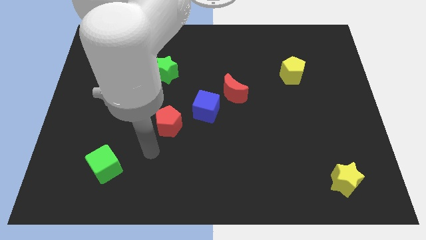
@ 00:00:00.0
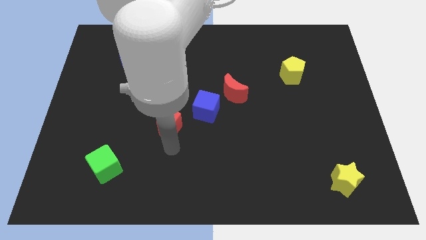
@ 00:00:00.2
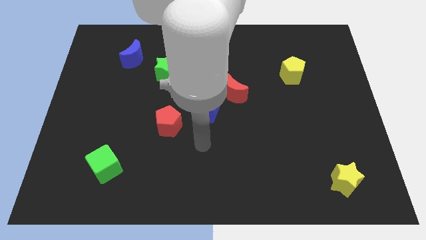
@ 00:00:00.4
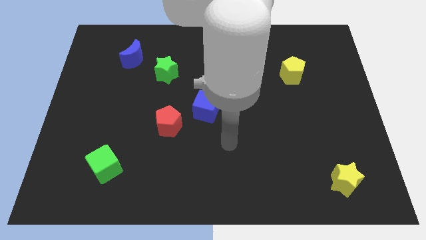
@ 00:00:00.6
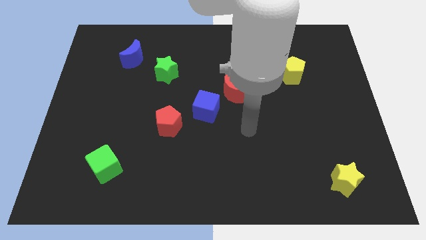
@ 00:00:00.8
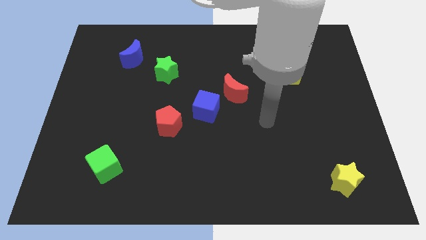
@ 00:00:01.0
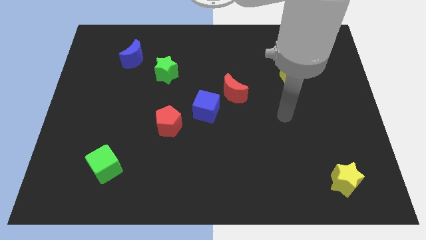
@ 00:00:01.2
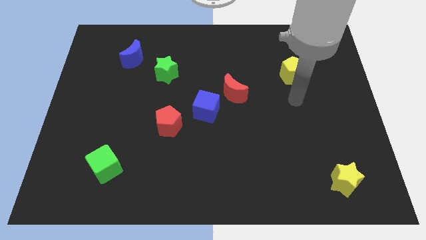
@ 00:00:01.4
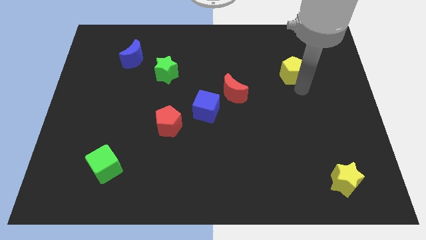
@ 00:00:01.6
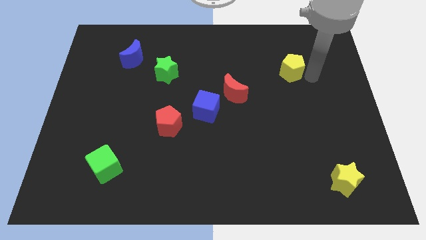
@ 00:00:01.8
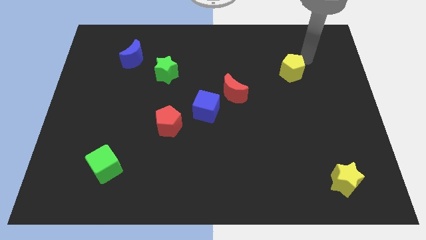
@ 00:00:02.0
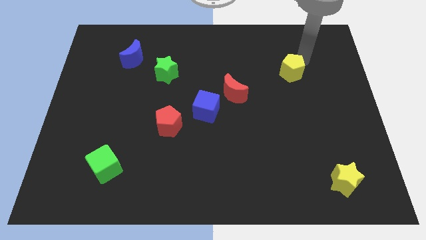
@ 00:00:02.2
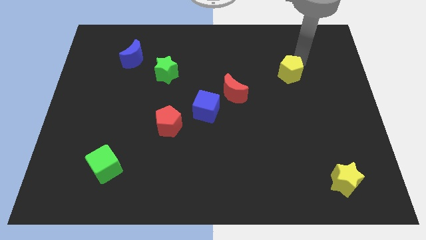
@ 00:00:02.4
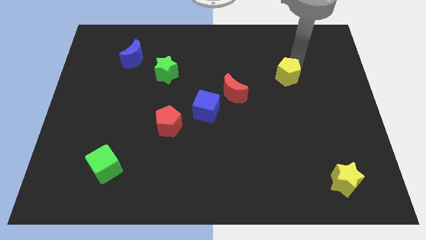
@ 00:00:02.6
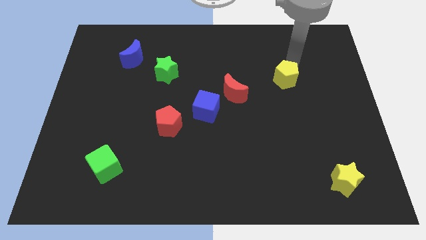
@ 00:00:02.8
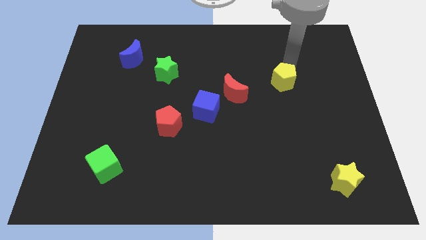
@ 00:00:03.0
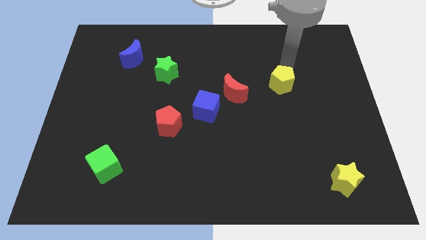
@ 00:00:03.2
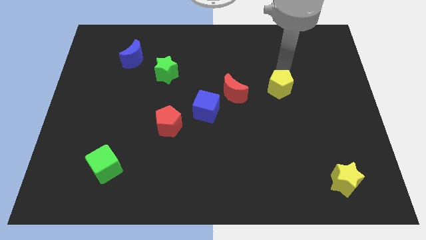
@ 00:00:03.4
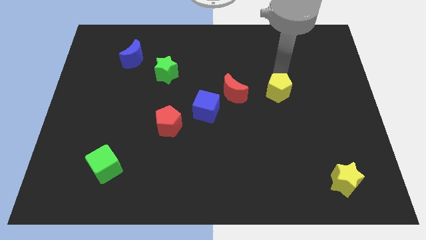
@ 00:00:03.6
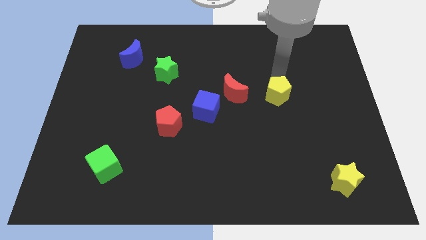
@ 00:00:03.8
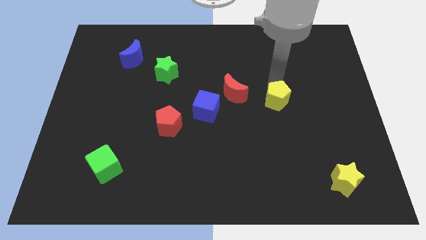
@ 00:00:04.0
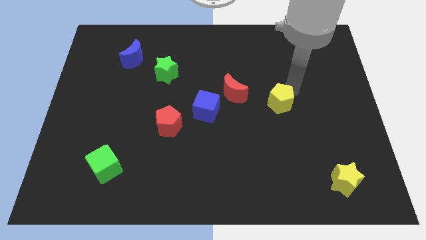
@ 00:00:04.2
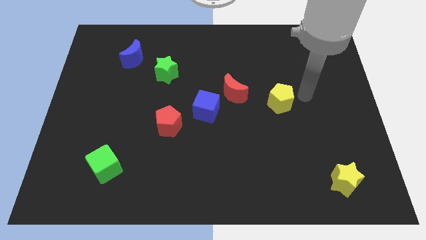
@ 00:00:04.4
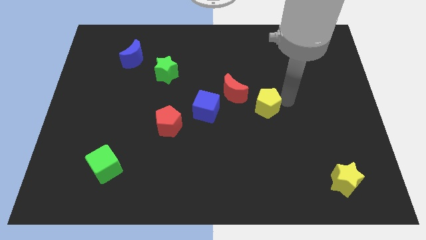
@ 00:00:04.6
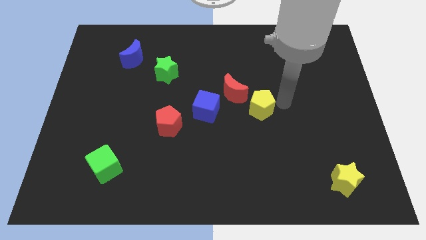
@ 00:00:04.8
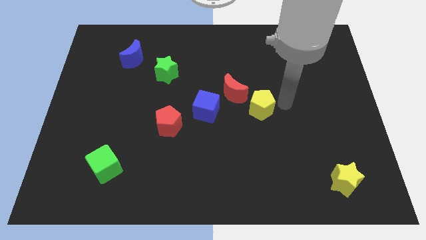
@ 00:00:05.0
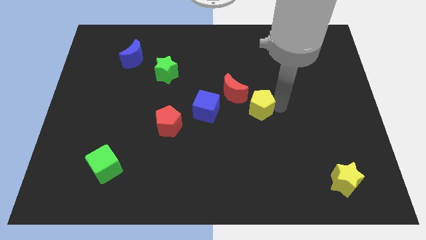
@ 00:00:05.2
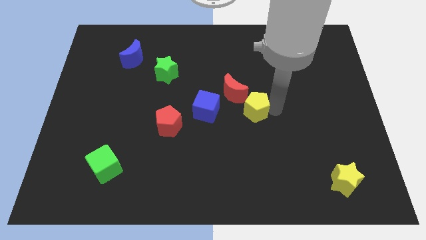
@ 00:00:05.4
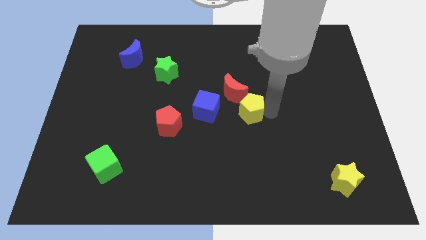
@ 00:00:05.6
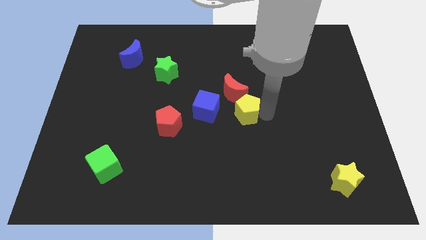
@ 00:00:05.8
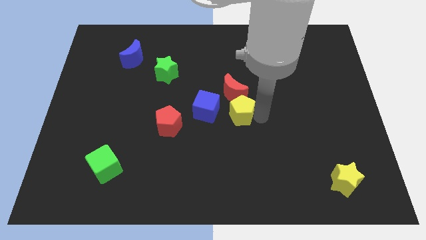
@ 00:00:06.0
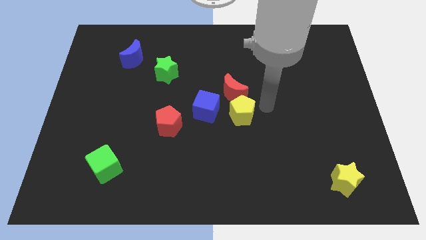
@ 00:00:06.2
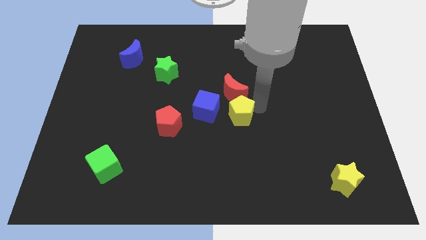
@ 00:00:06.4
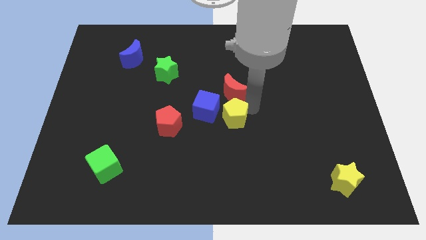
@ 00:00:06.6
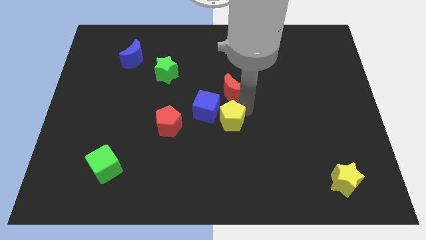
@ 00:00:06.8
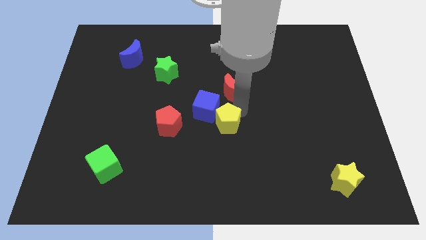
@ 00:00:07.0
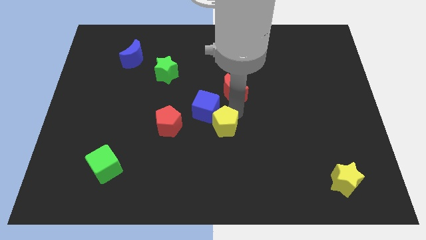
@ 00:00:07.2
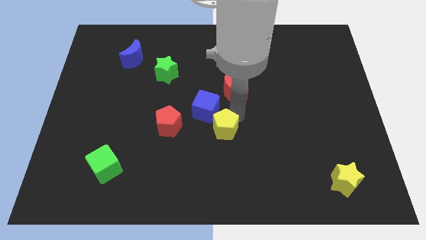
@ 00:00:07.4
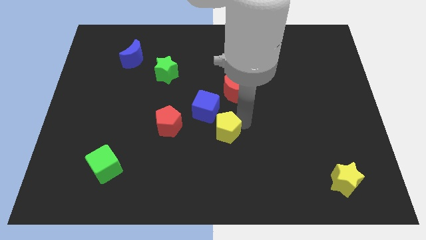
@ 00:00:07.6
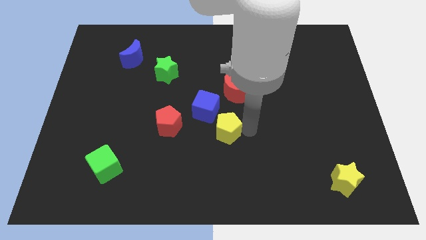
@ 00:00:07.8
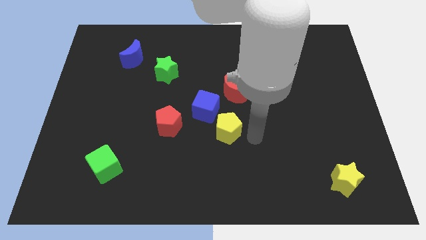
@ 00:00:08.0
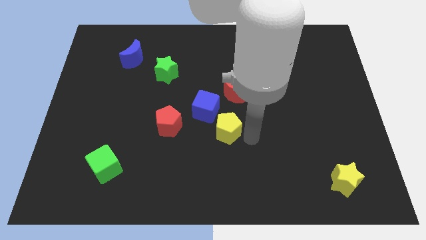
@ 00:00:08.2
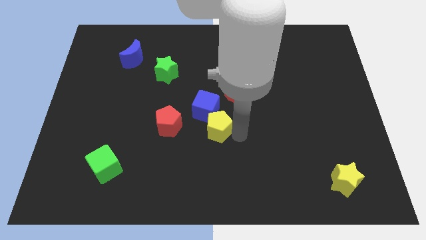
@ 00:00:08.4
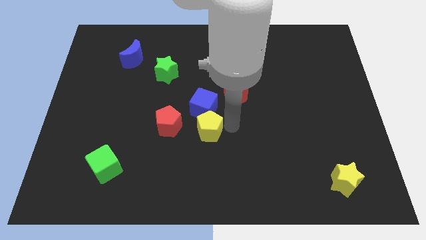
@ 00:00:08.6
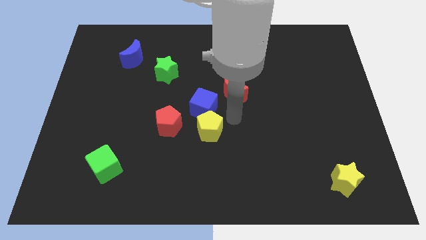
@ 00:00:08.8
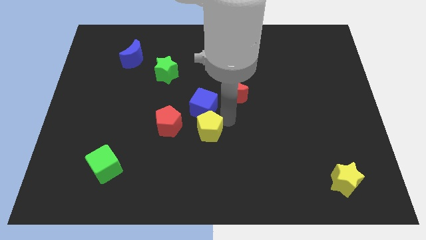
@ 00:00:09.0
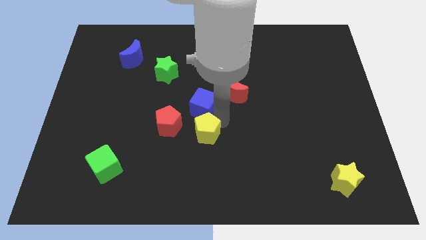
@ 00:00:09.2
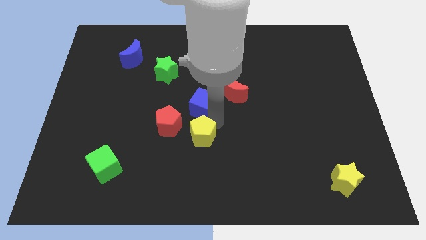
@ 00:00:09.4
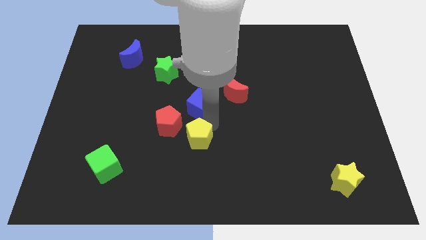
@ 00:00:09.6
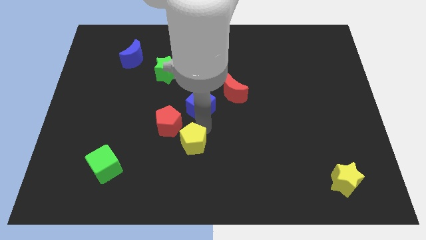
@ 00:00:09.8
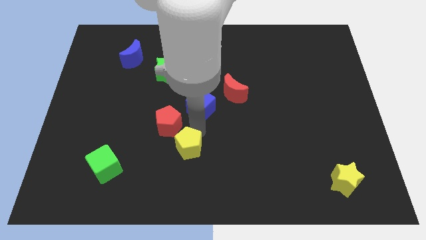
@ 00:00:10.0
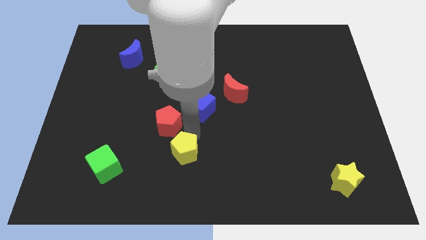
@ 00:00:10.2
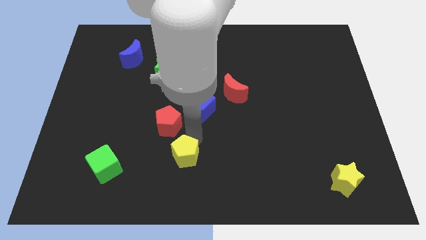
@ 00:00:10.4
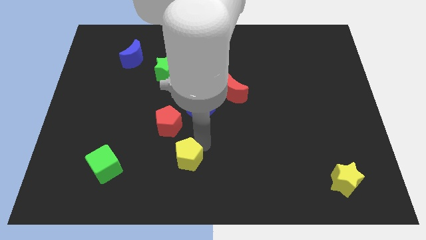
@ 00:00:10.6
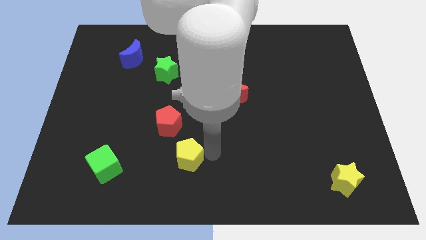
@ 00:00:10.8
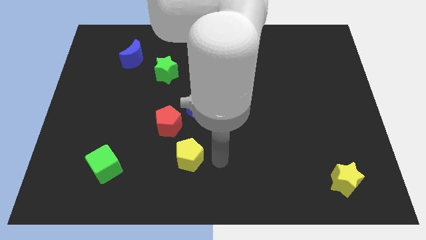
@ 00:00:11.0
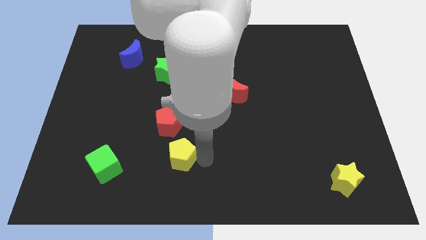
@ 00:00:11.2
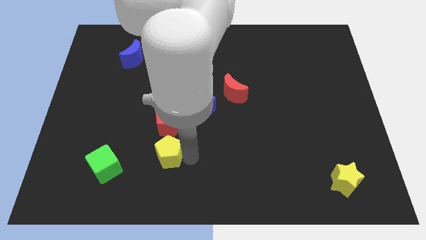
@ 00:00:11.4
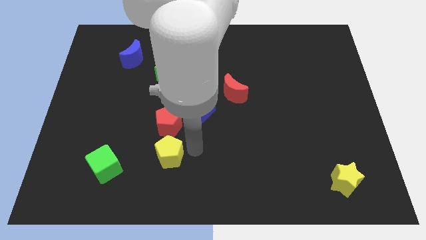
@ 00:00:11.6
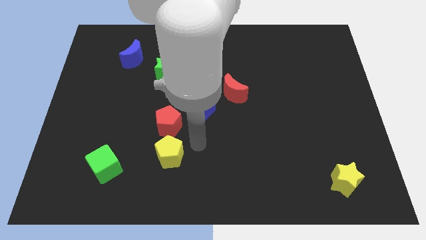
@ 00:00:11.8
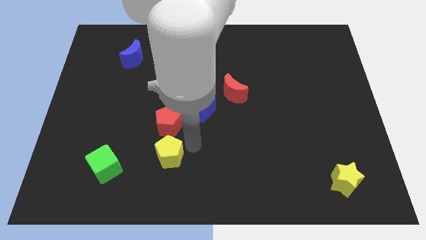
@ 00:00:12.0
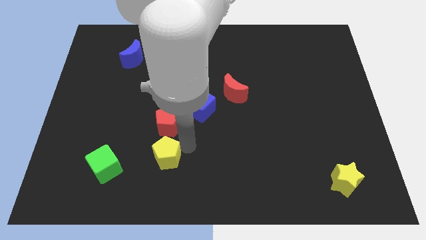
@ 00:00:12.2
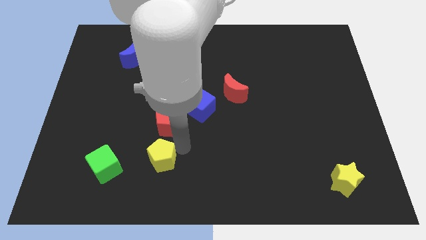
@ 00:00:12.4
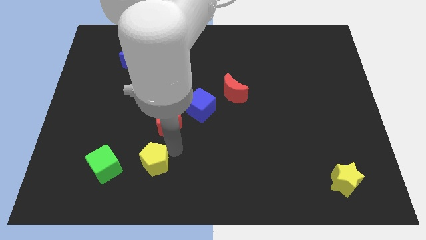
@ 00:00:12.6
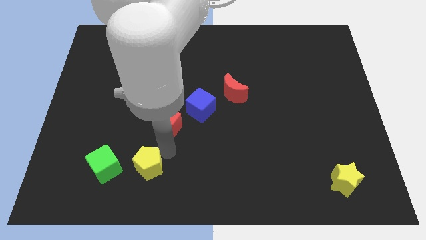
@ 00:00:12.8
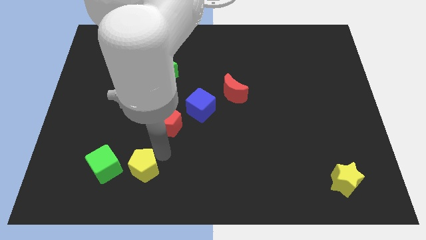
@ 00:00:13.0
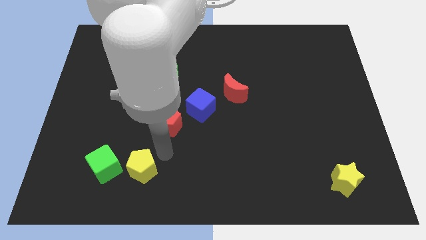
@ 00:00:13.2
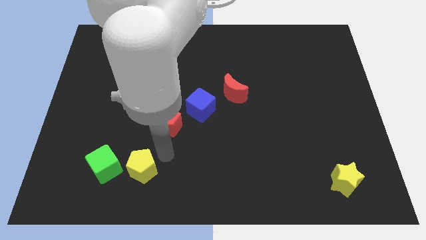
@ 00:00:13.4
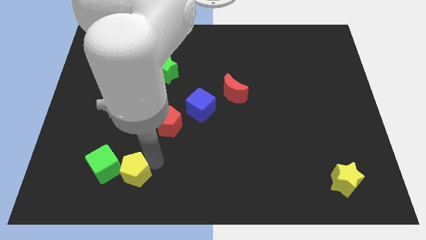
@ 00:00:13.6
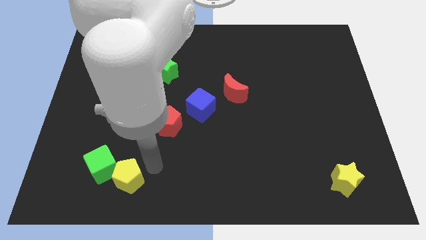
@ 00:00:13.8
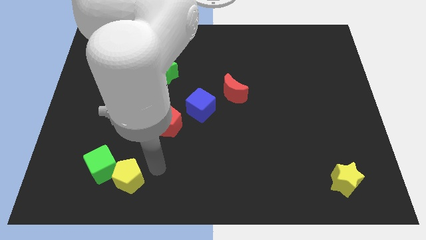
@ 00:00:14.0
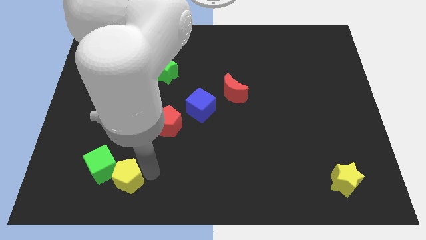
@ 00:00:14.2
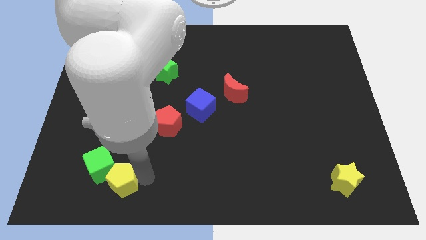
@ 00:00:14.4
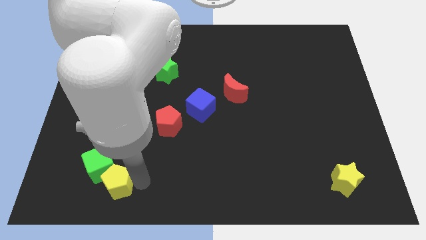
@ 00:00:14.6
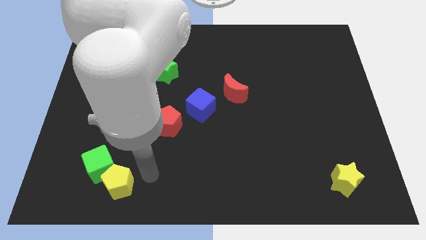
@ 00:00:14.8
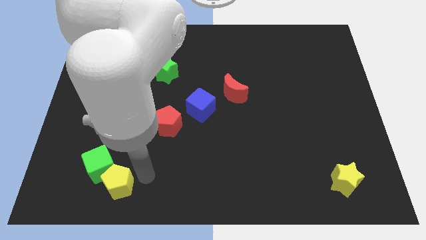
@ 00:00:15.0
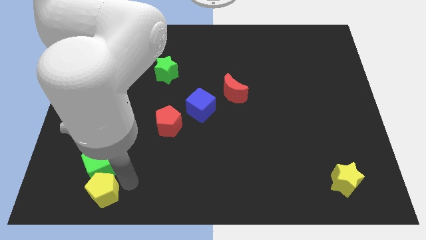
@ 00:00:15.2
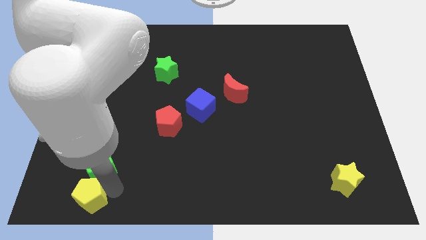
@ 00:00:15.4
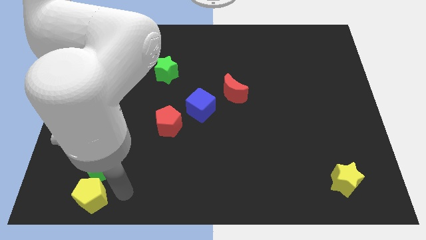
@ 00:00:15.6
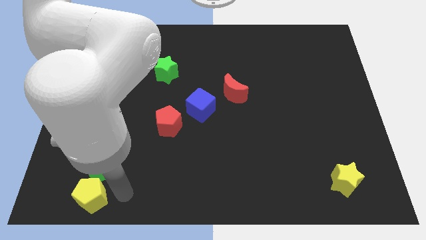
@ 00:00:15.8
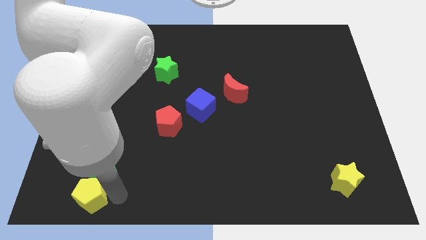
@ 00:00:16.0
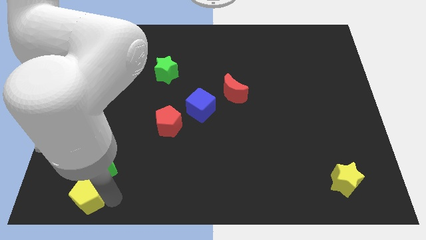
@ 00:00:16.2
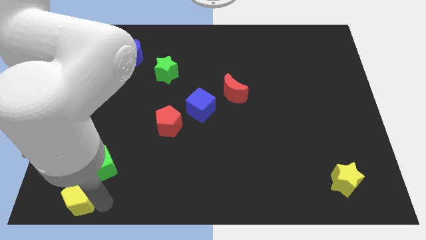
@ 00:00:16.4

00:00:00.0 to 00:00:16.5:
put the yellow pentagon to the bottom left corner
